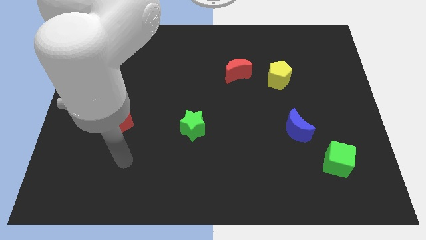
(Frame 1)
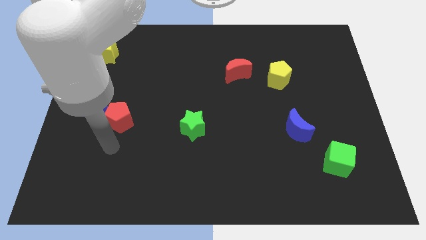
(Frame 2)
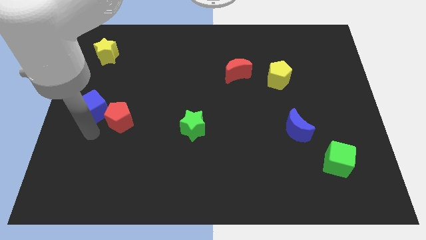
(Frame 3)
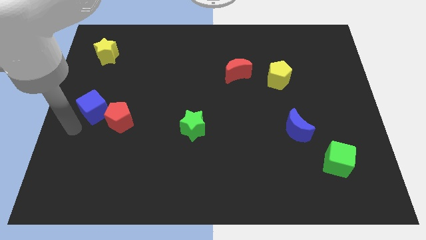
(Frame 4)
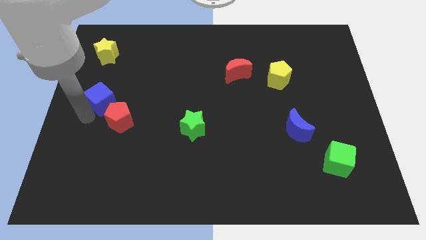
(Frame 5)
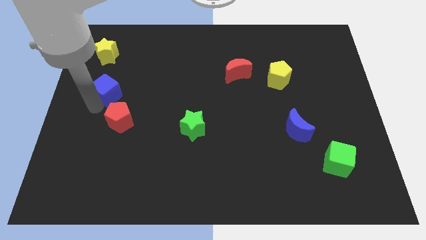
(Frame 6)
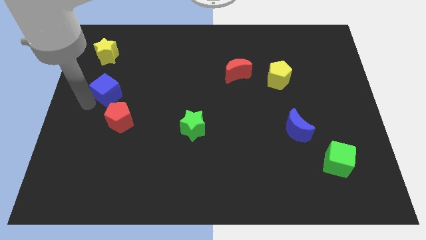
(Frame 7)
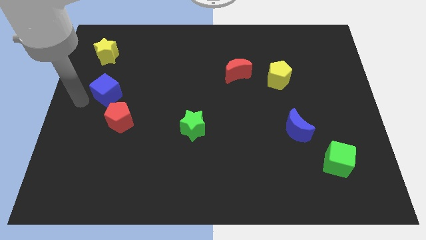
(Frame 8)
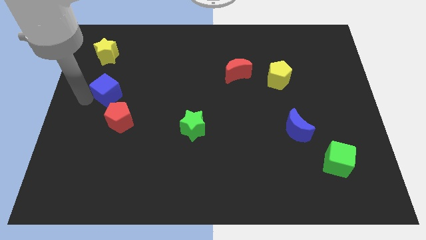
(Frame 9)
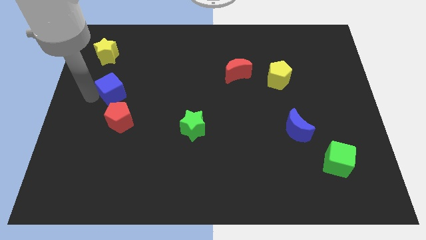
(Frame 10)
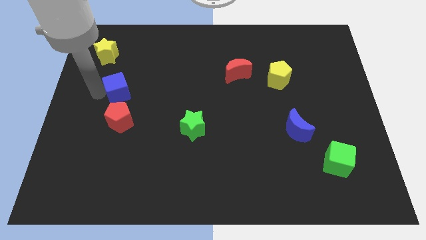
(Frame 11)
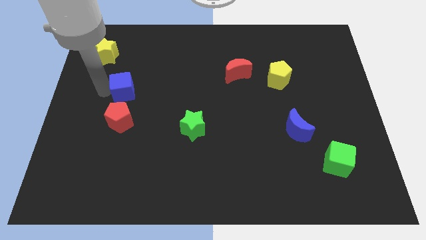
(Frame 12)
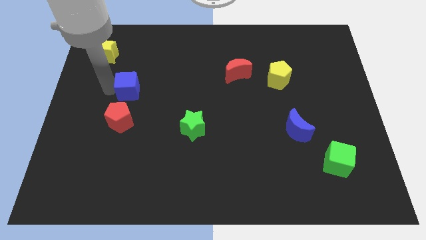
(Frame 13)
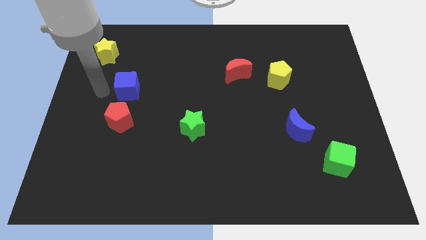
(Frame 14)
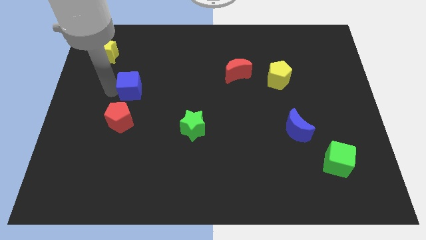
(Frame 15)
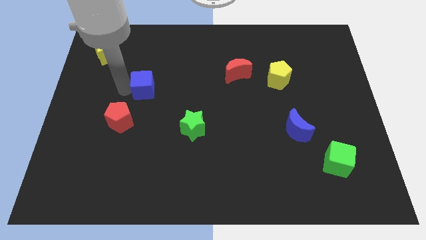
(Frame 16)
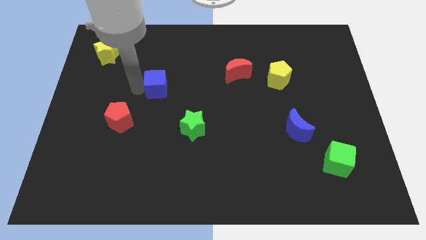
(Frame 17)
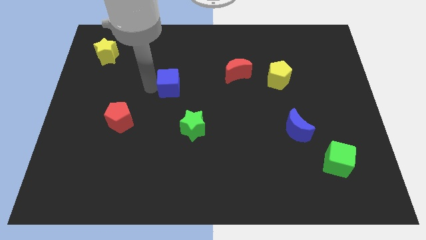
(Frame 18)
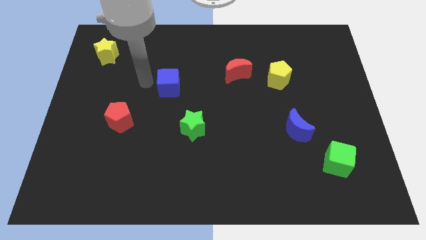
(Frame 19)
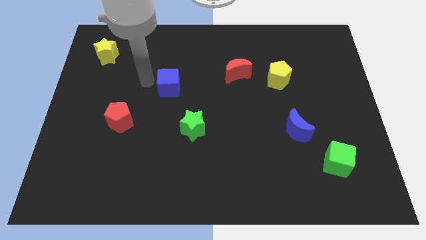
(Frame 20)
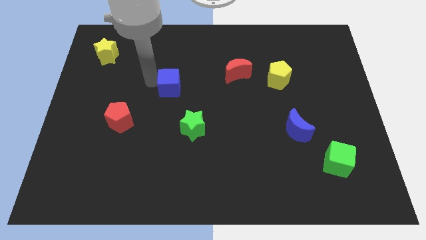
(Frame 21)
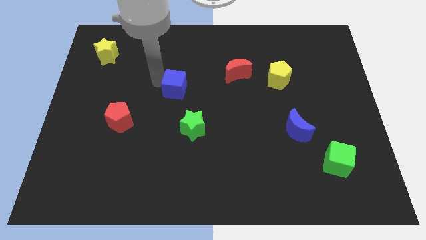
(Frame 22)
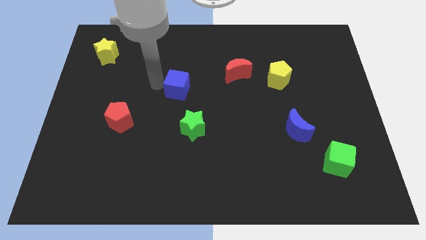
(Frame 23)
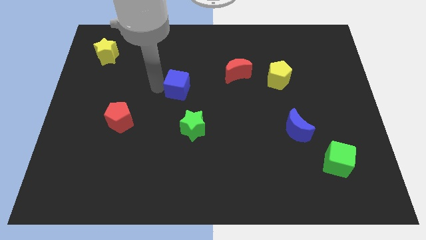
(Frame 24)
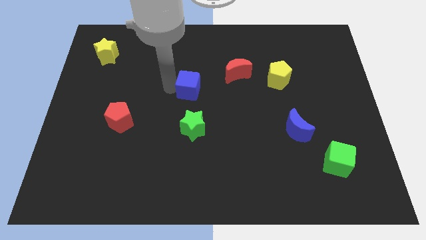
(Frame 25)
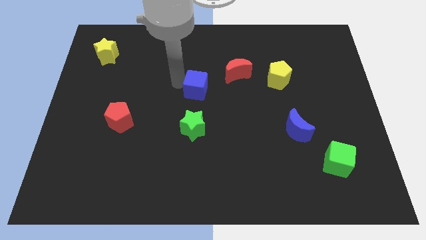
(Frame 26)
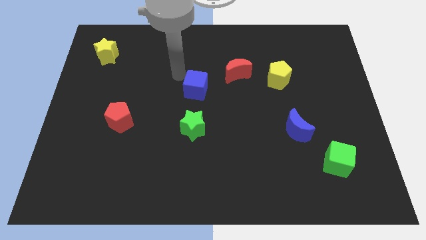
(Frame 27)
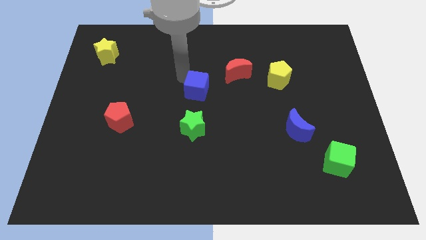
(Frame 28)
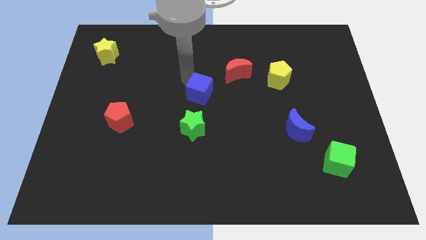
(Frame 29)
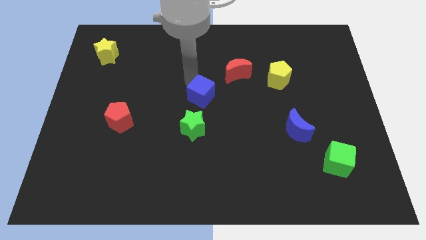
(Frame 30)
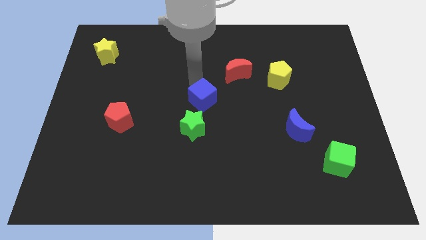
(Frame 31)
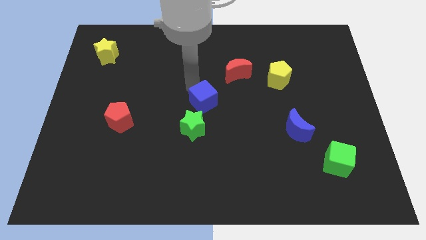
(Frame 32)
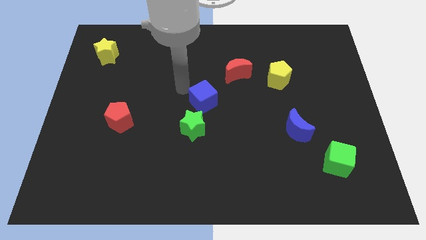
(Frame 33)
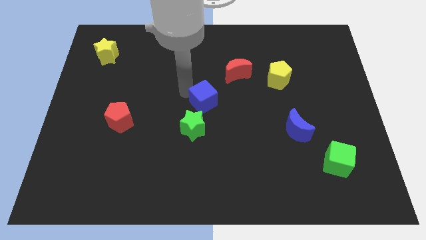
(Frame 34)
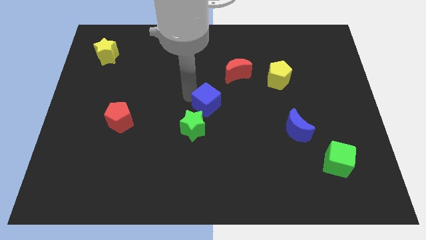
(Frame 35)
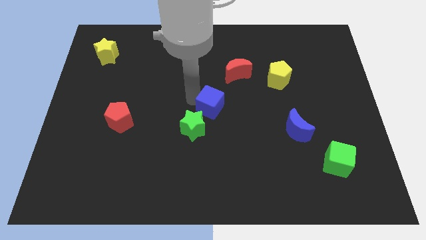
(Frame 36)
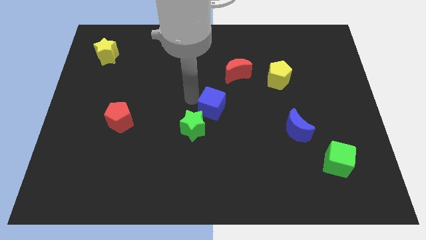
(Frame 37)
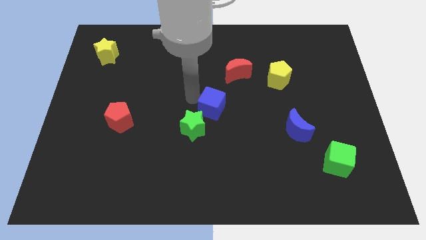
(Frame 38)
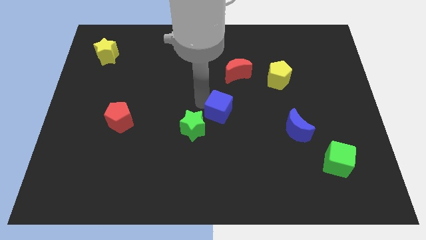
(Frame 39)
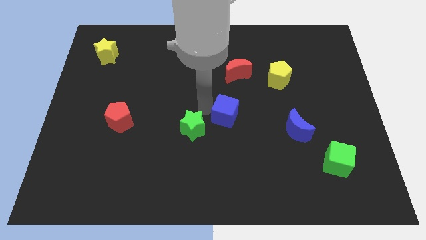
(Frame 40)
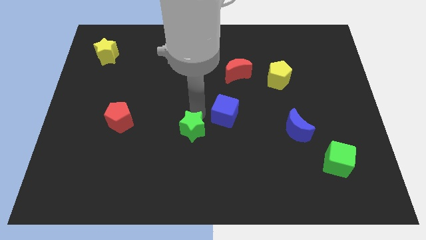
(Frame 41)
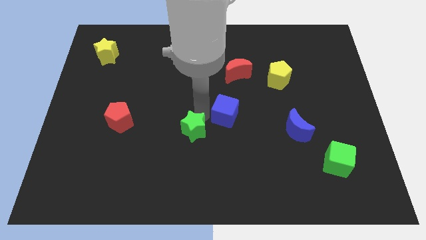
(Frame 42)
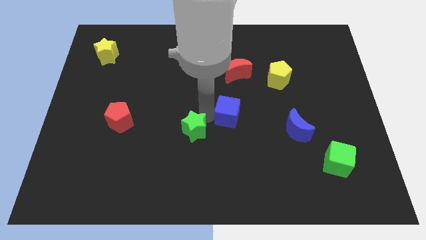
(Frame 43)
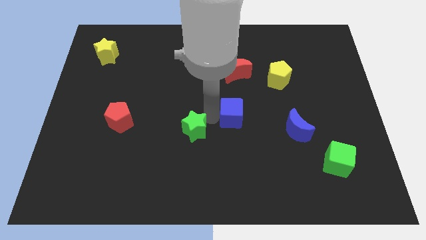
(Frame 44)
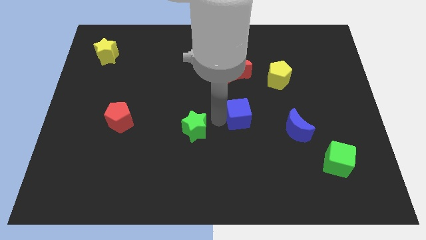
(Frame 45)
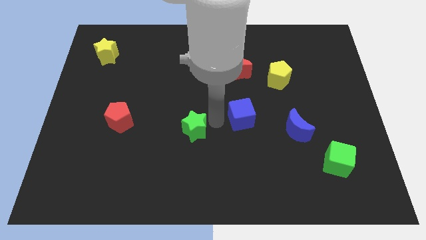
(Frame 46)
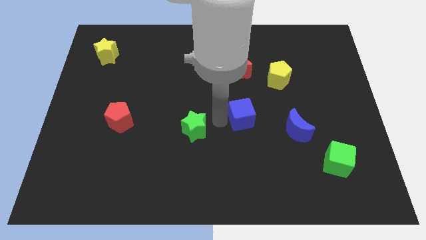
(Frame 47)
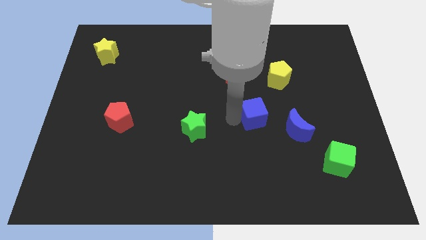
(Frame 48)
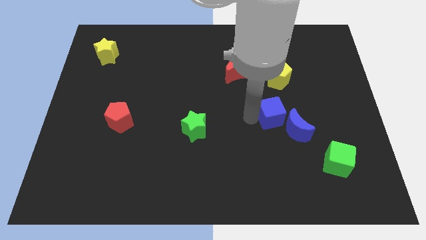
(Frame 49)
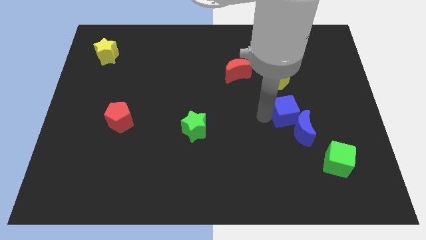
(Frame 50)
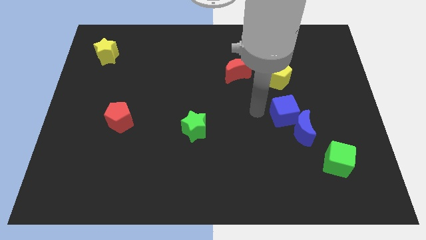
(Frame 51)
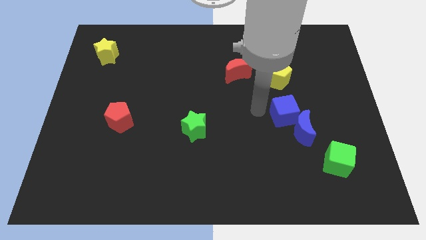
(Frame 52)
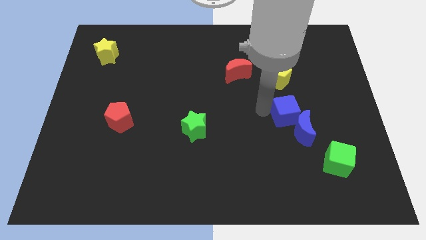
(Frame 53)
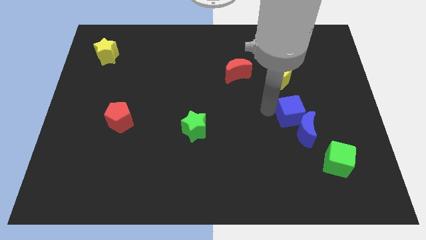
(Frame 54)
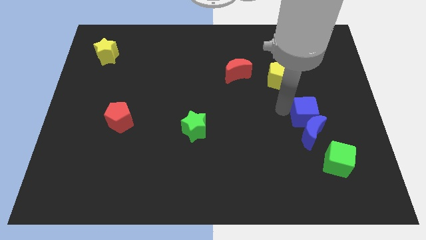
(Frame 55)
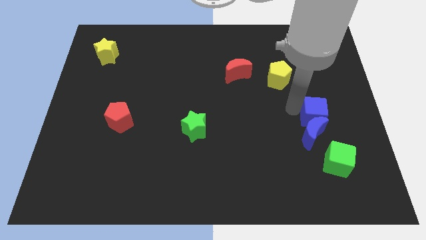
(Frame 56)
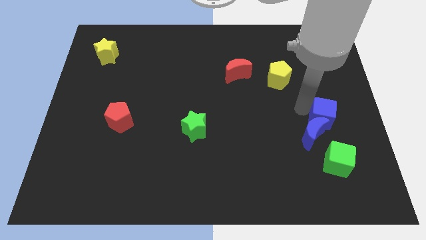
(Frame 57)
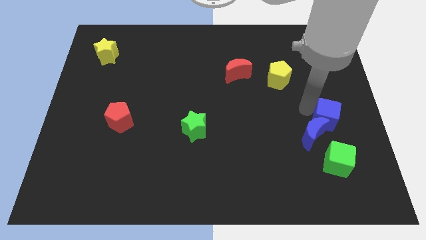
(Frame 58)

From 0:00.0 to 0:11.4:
put the blue cube to the right of the blue moon
